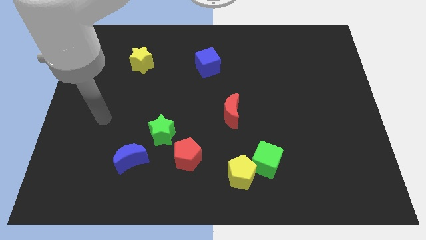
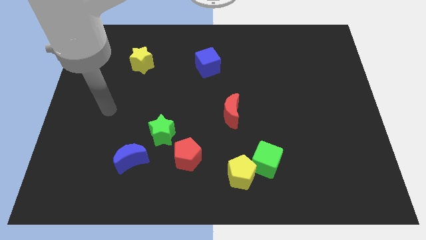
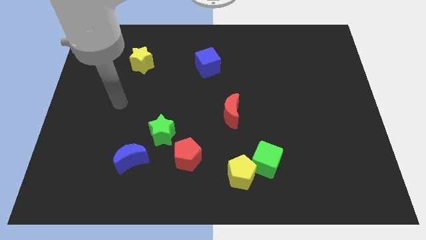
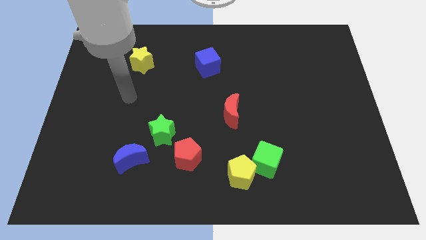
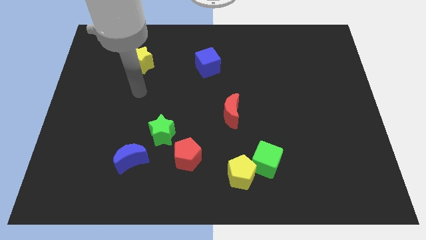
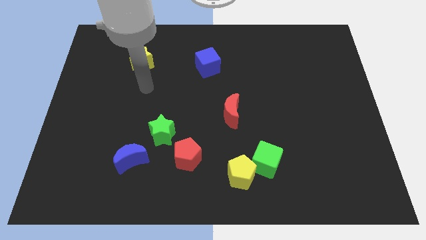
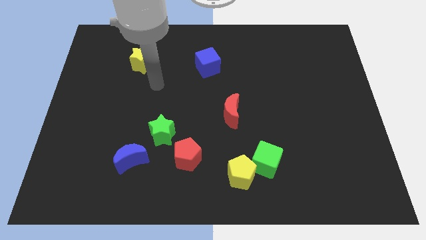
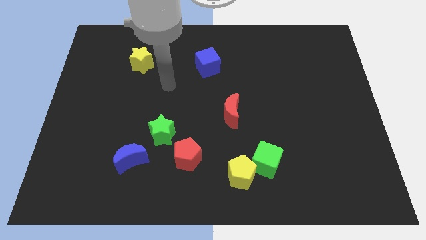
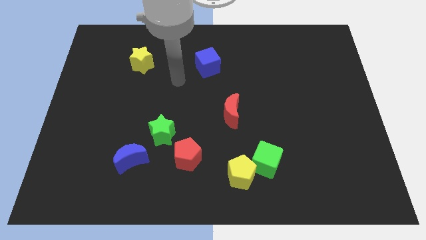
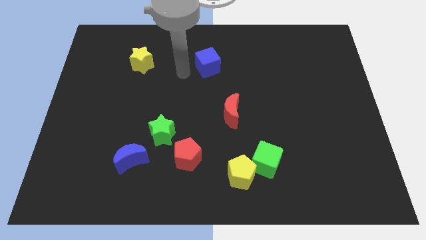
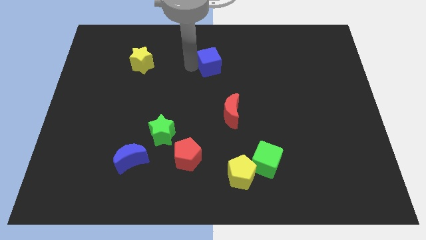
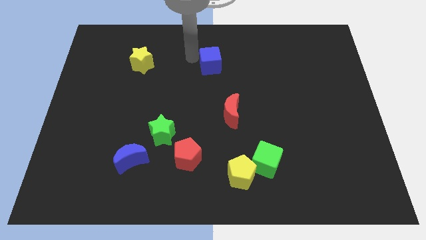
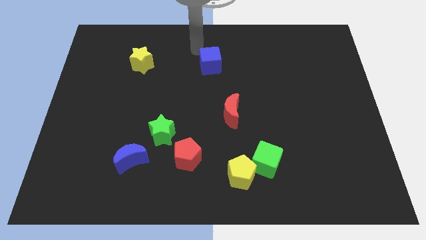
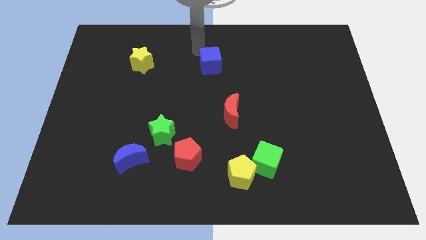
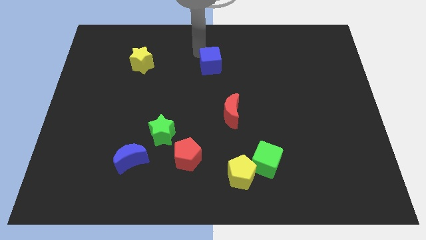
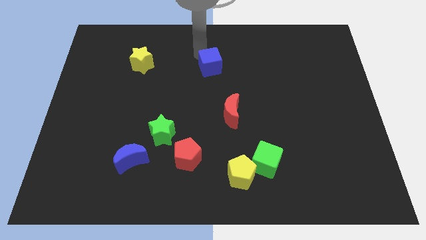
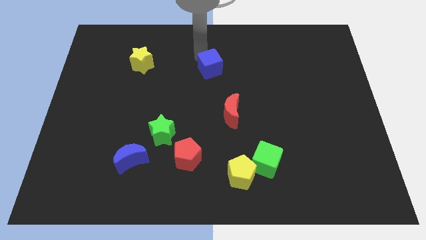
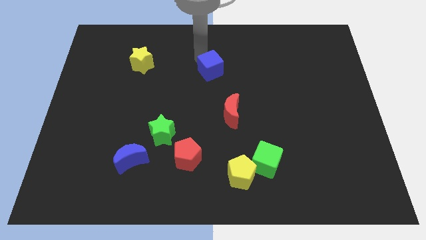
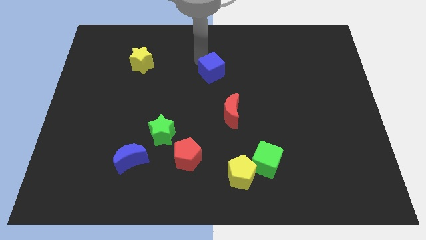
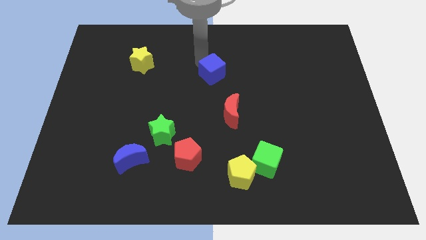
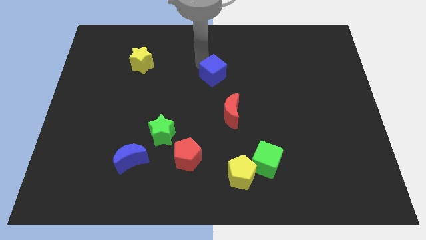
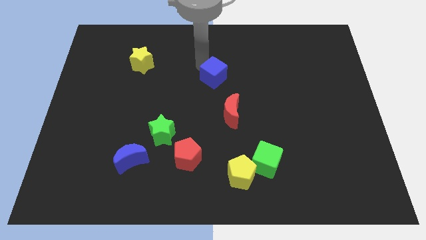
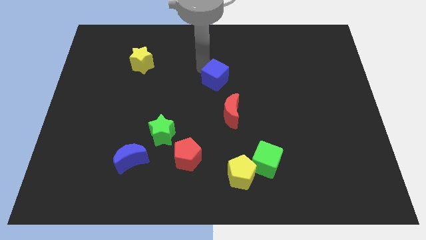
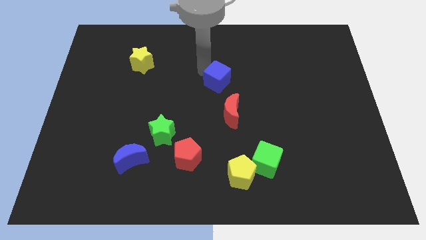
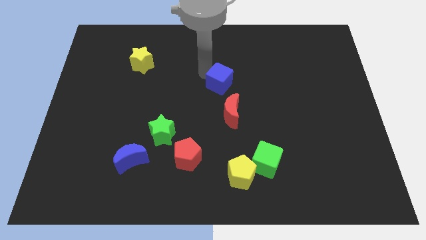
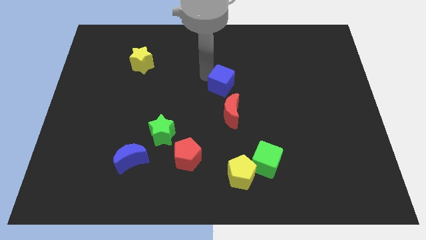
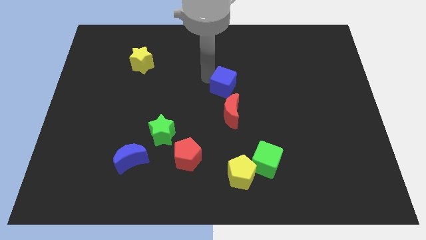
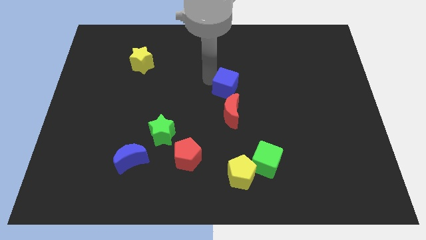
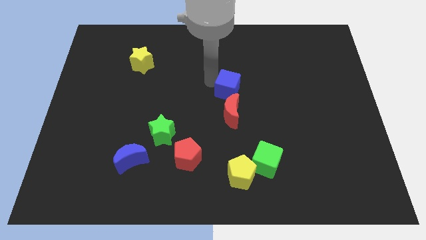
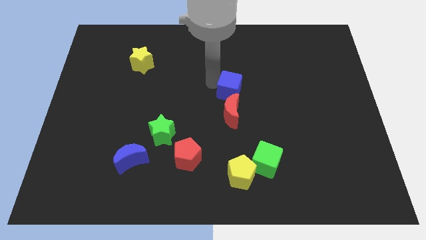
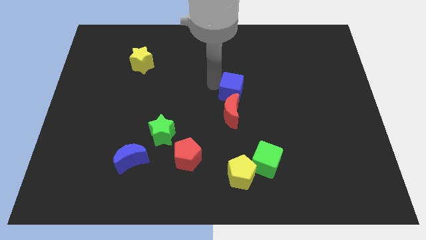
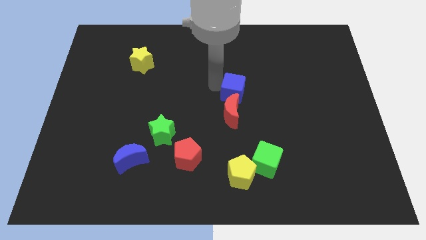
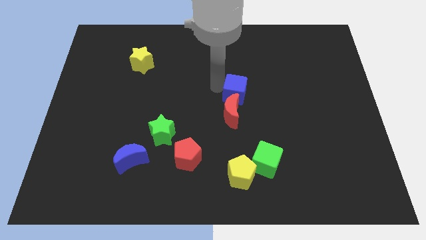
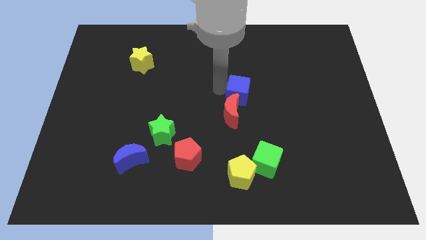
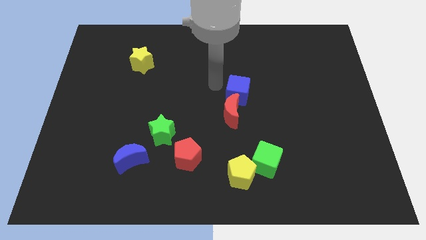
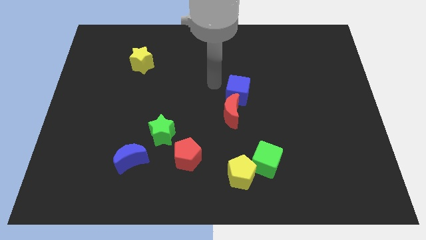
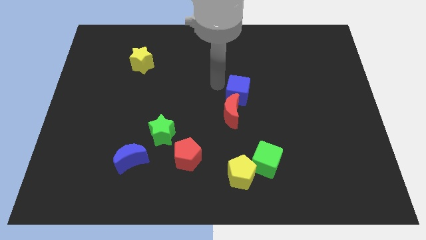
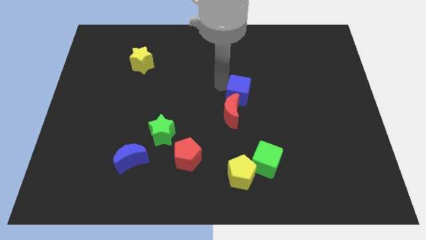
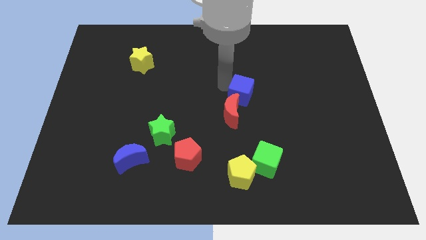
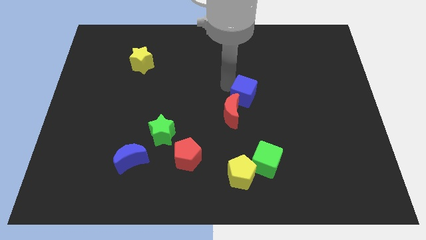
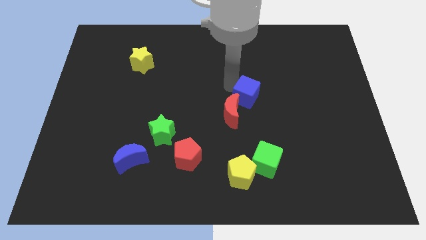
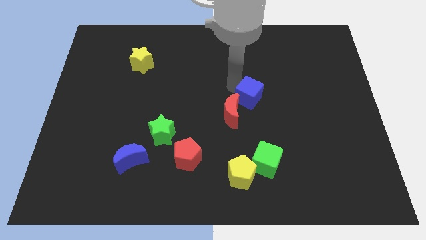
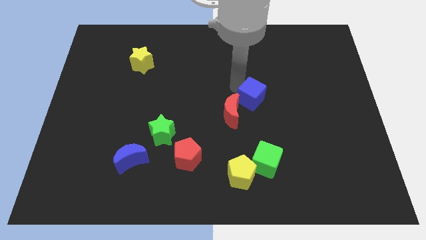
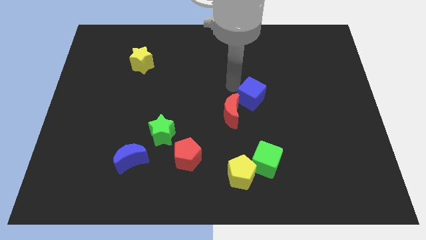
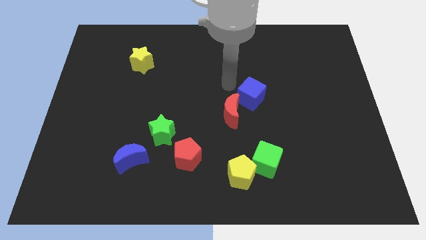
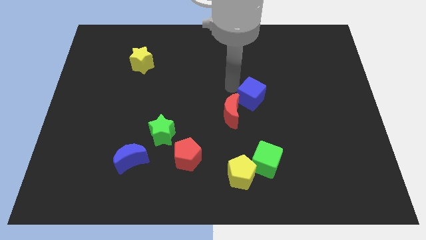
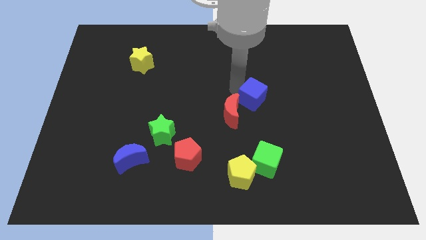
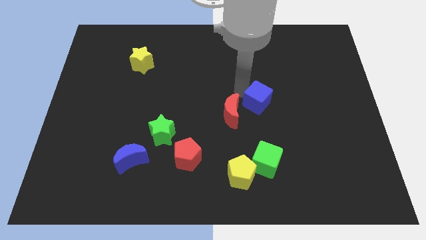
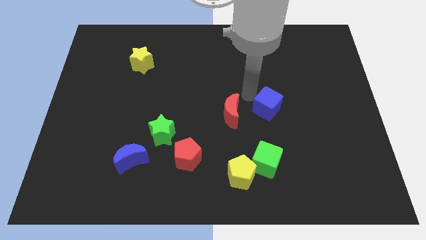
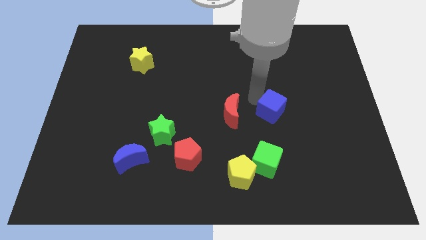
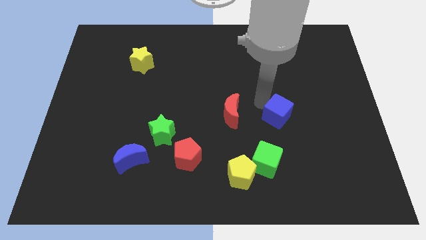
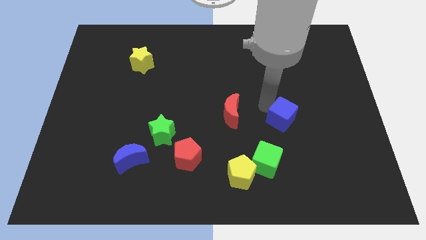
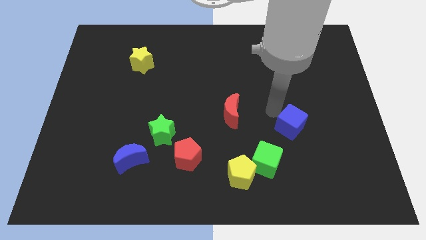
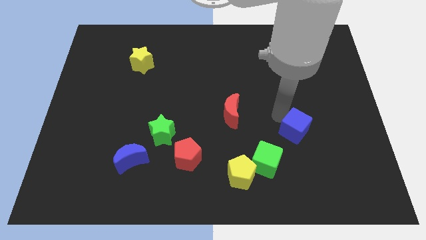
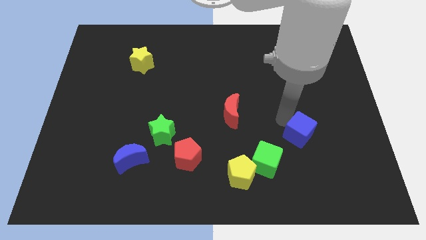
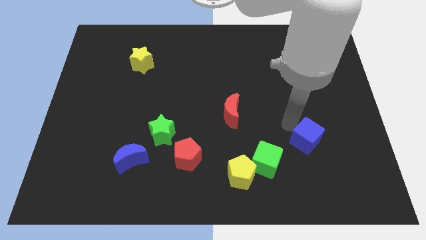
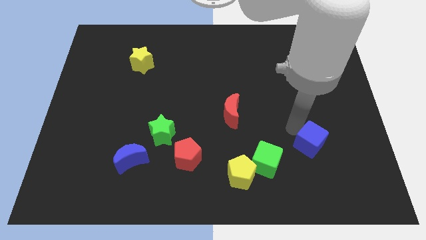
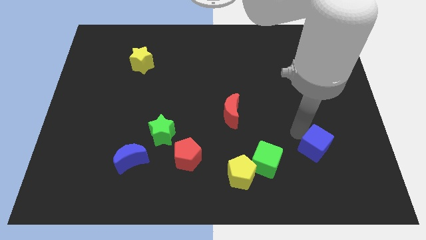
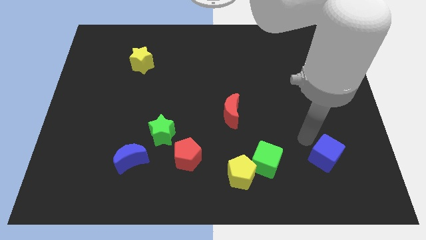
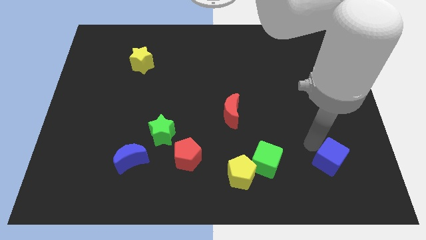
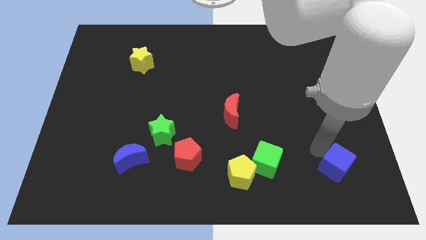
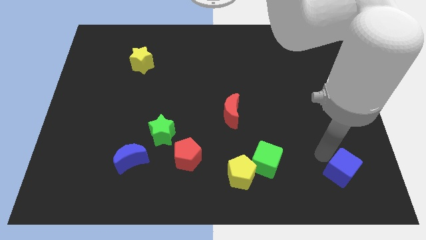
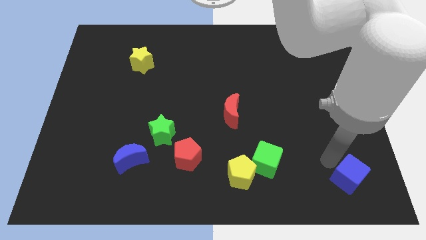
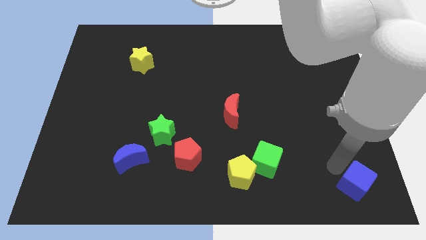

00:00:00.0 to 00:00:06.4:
push the blue cube to the bottom right corner

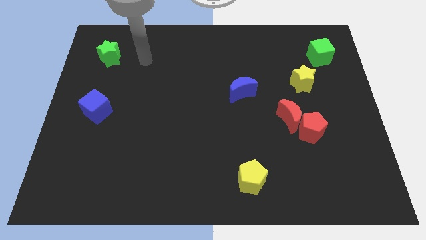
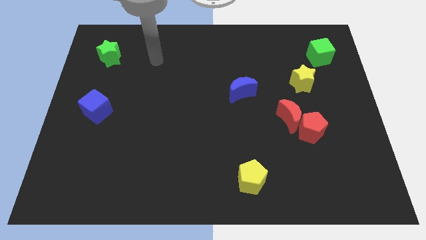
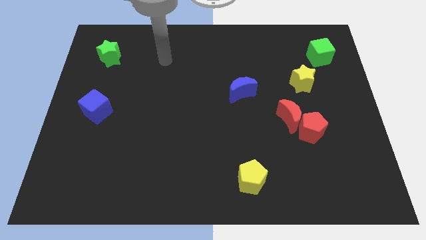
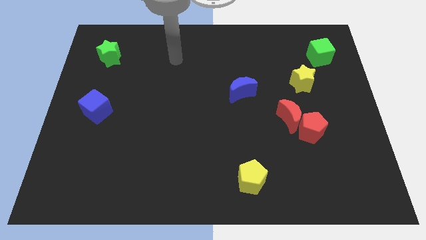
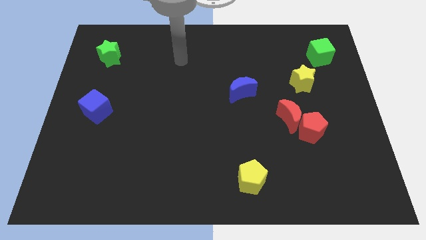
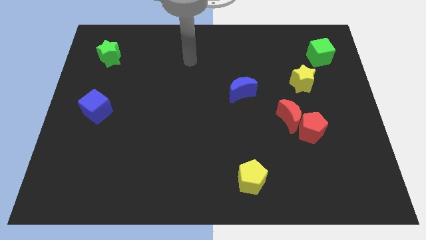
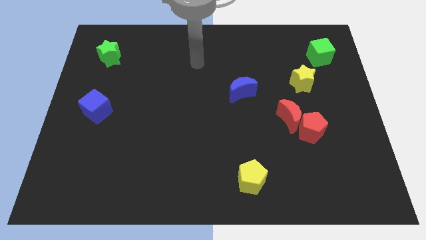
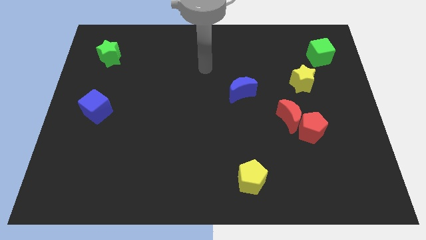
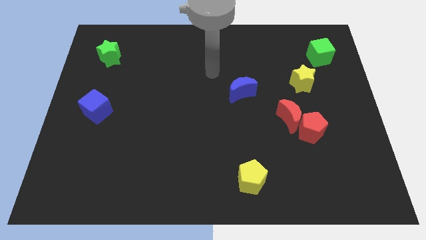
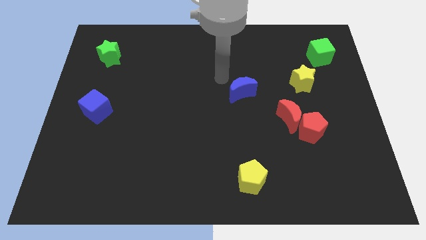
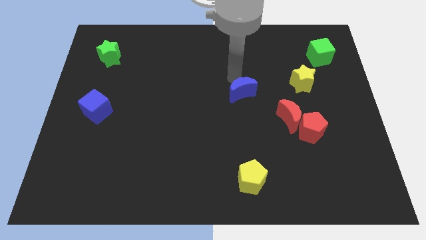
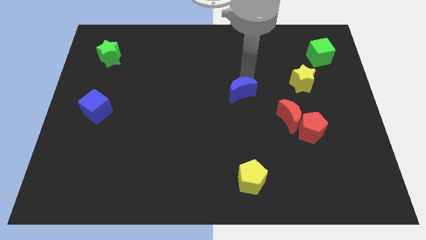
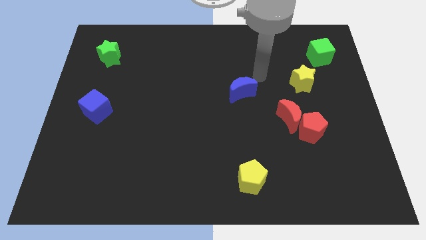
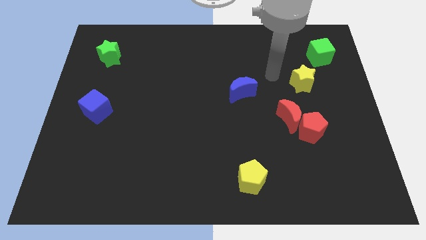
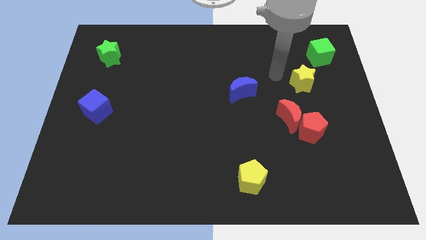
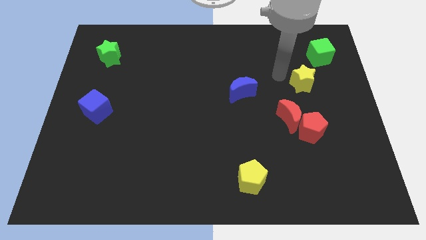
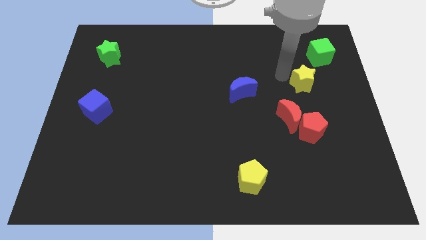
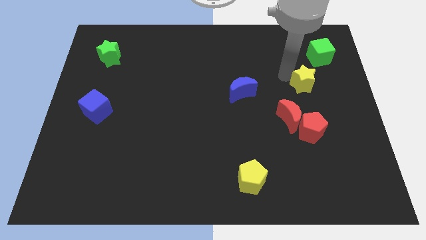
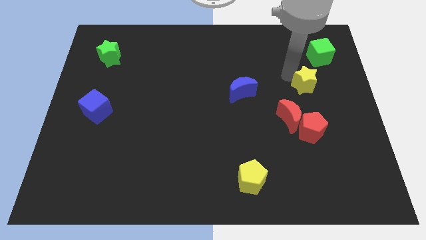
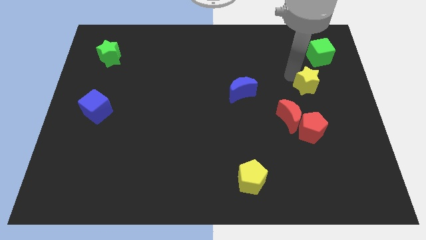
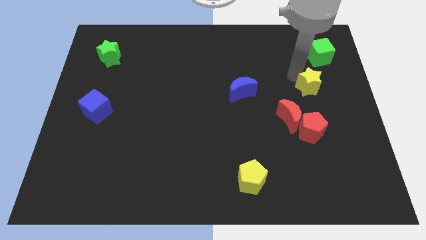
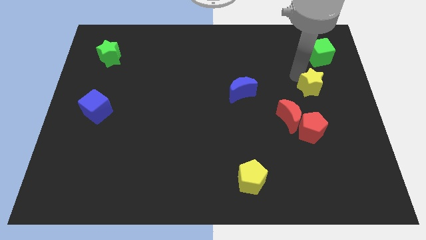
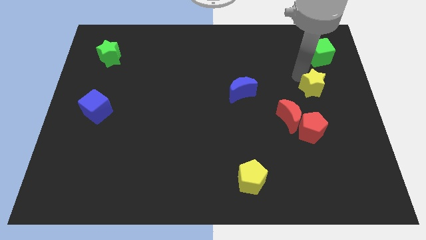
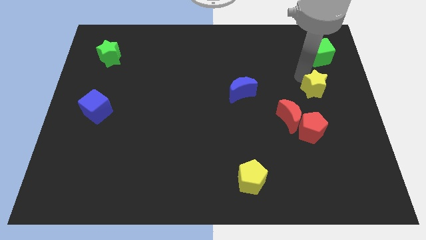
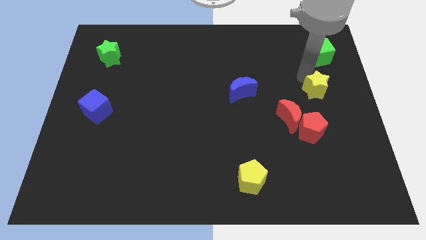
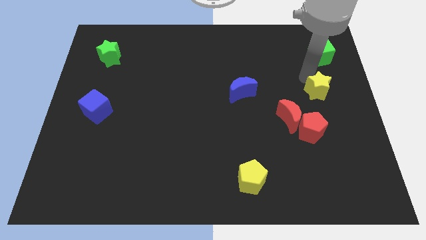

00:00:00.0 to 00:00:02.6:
slide the yellow star to the right side

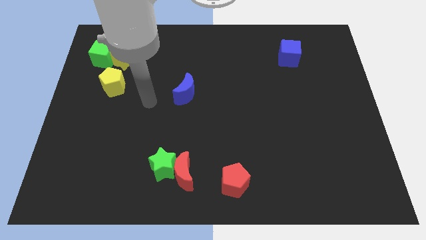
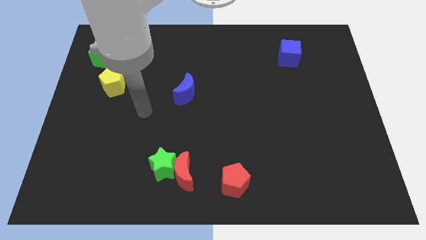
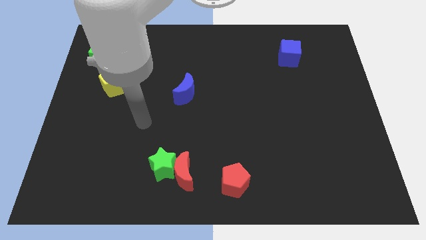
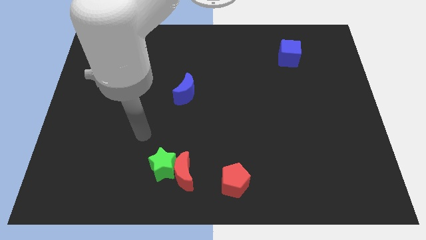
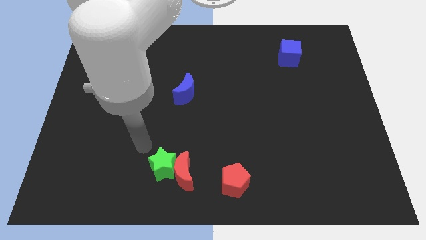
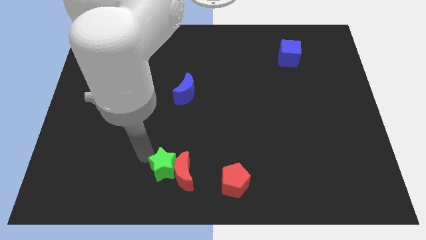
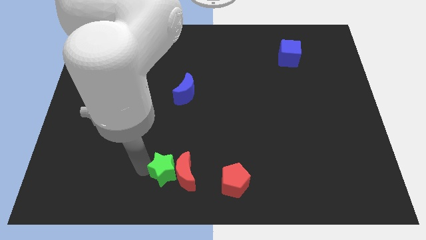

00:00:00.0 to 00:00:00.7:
push the green star to the bottom side
